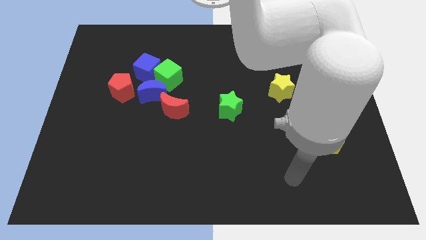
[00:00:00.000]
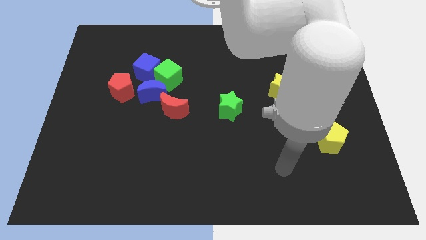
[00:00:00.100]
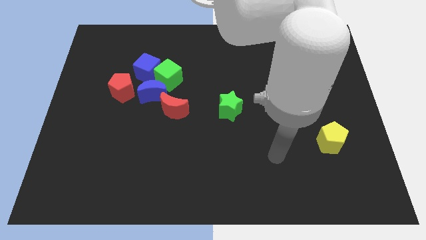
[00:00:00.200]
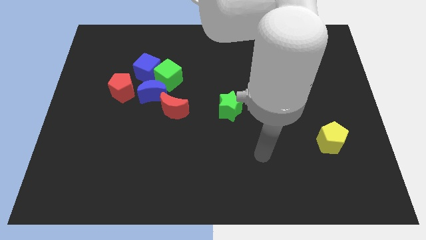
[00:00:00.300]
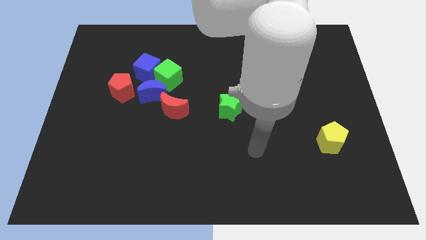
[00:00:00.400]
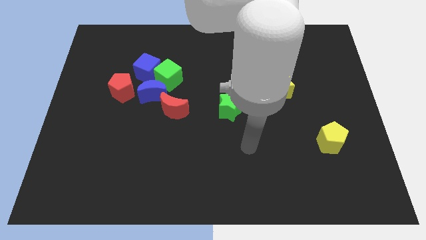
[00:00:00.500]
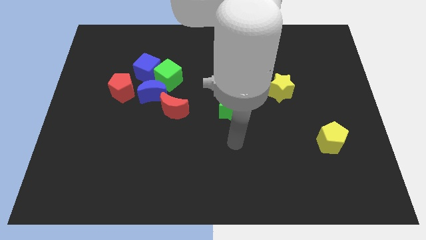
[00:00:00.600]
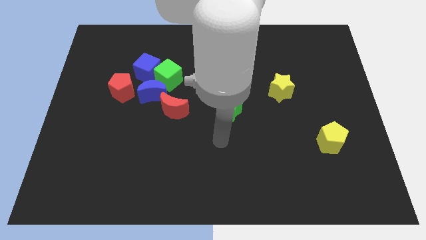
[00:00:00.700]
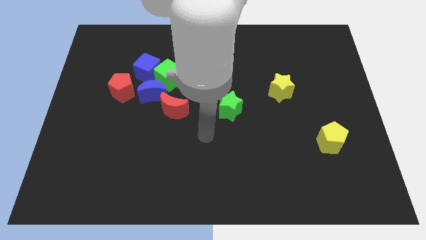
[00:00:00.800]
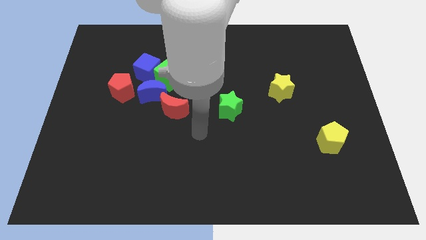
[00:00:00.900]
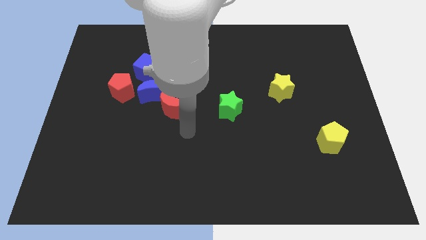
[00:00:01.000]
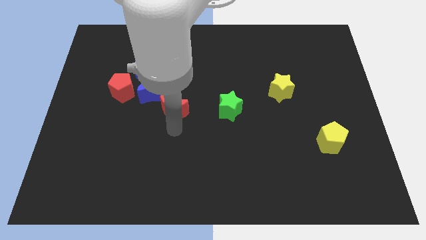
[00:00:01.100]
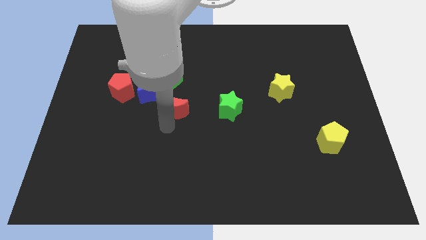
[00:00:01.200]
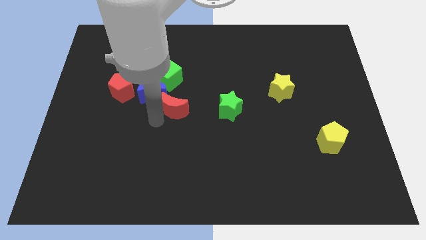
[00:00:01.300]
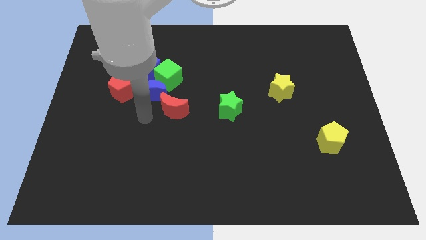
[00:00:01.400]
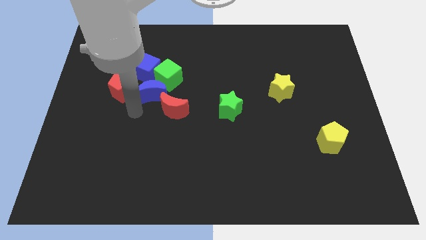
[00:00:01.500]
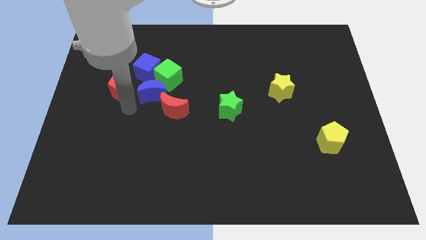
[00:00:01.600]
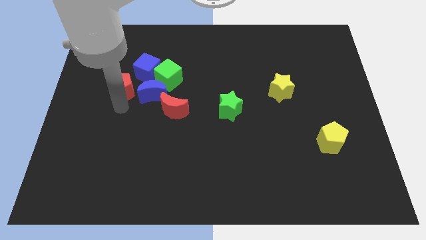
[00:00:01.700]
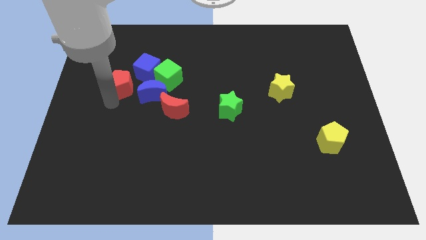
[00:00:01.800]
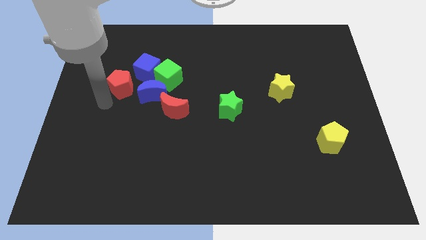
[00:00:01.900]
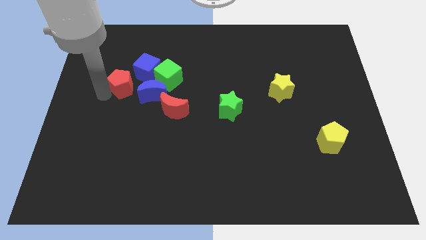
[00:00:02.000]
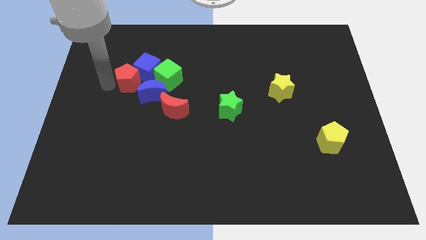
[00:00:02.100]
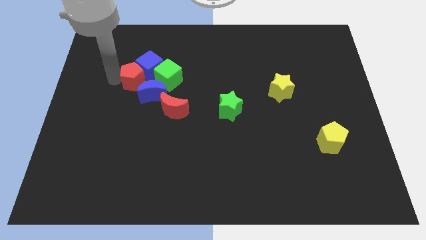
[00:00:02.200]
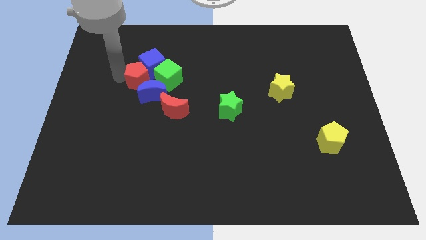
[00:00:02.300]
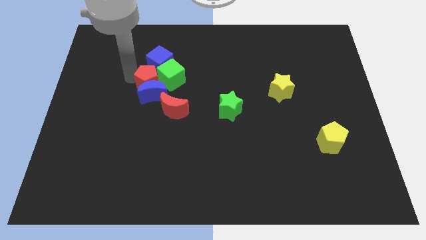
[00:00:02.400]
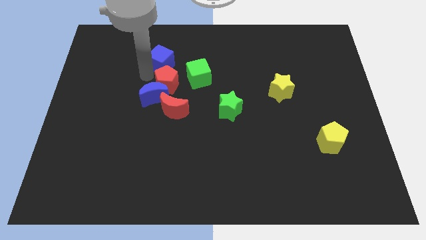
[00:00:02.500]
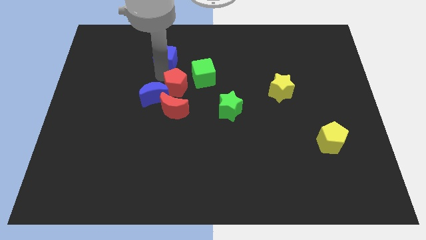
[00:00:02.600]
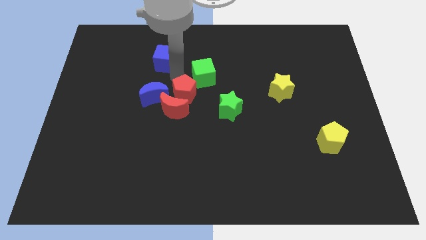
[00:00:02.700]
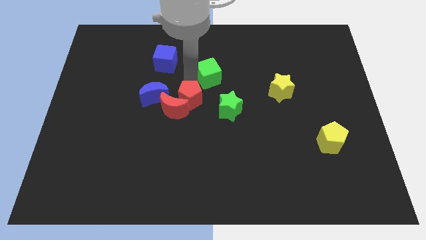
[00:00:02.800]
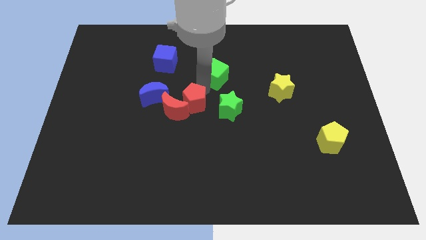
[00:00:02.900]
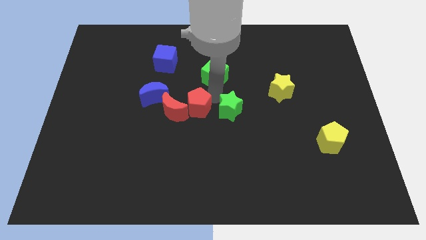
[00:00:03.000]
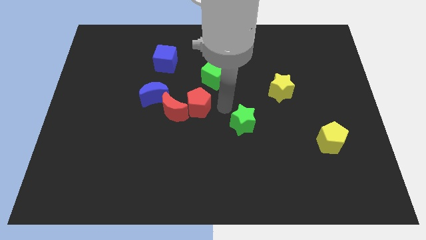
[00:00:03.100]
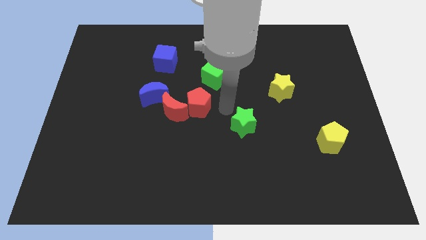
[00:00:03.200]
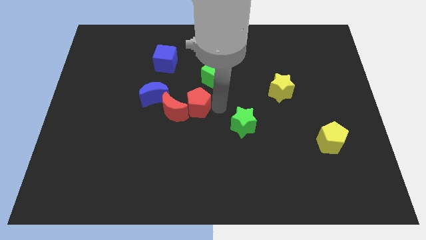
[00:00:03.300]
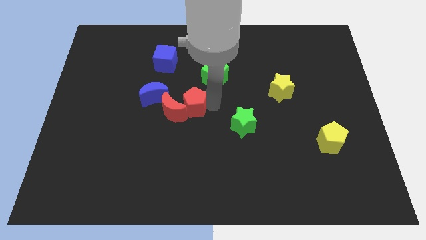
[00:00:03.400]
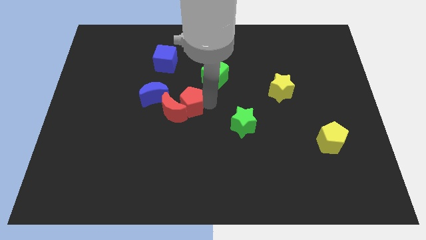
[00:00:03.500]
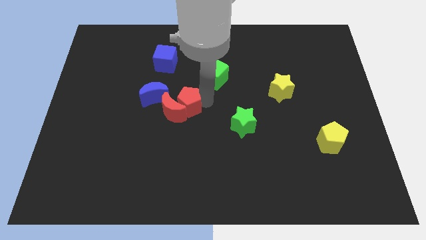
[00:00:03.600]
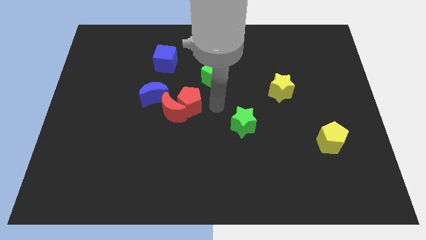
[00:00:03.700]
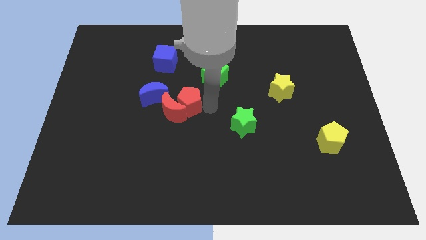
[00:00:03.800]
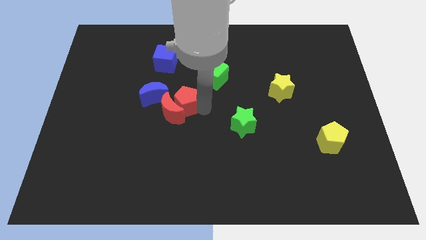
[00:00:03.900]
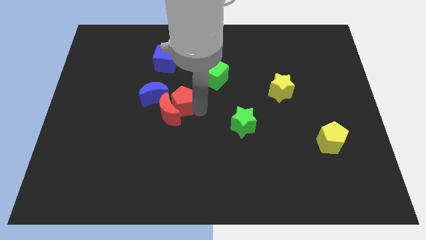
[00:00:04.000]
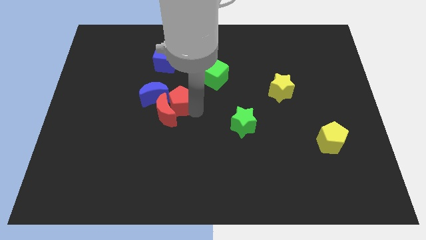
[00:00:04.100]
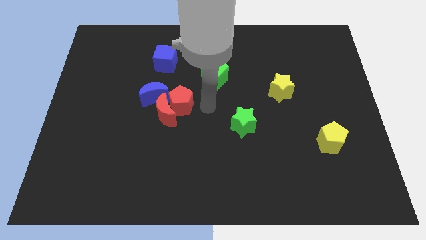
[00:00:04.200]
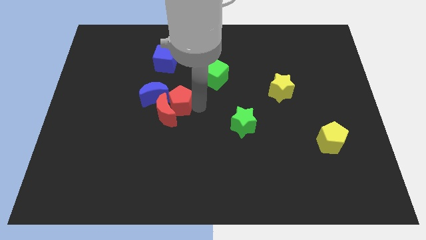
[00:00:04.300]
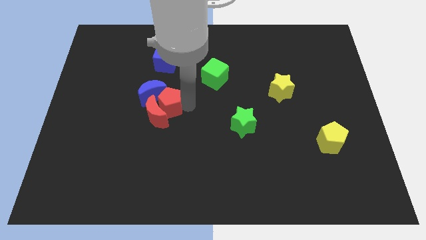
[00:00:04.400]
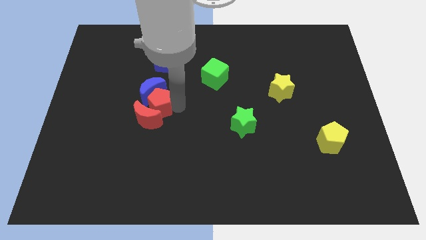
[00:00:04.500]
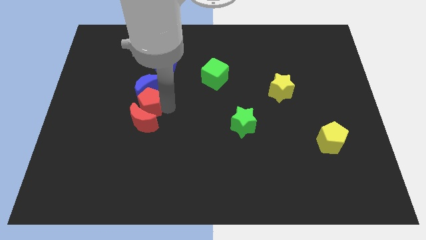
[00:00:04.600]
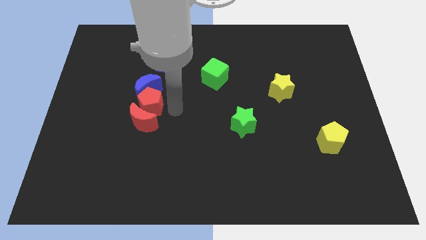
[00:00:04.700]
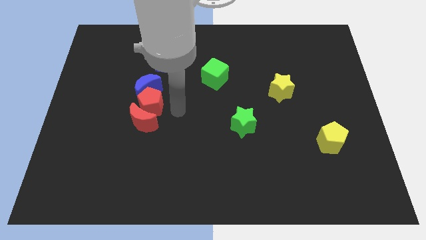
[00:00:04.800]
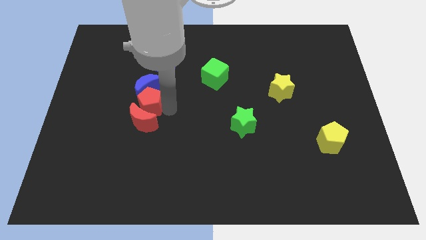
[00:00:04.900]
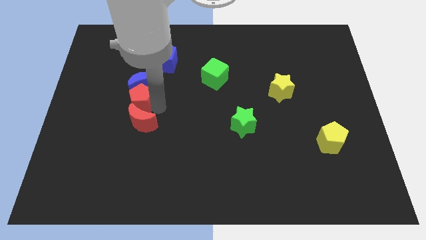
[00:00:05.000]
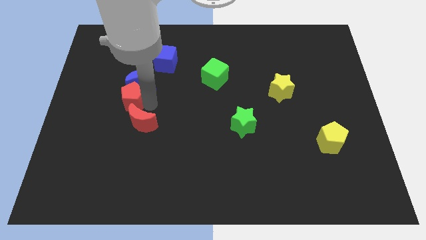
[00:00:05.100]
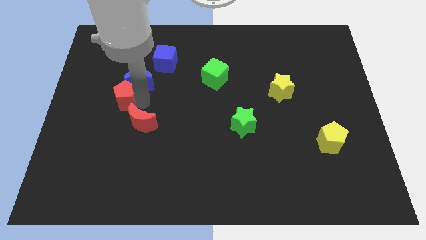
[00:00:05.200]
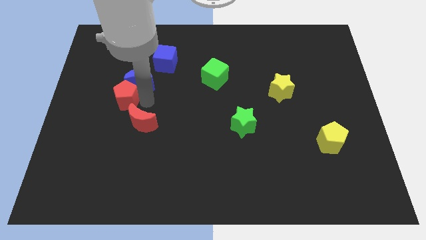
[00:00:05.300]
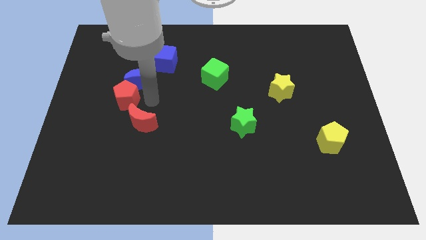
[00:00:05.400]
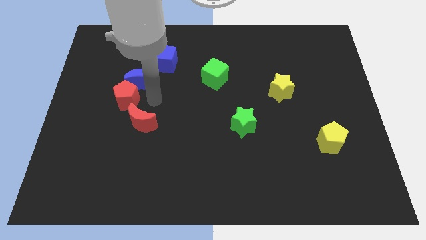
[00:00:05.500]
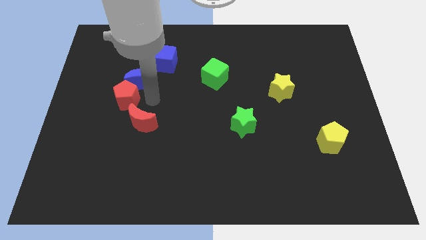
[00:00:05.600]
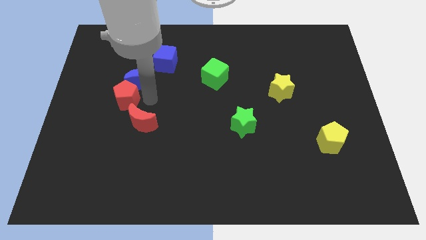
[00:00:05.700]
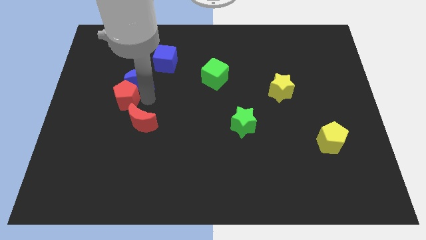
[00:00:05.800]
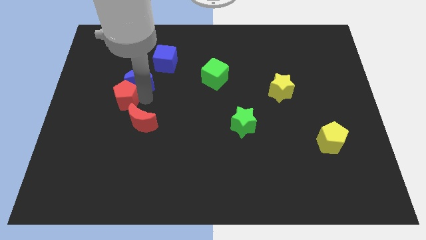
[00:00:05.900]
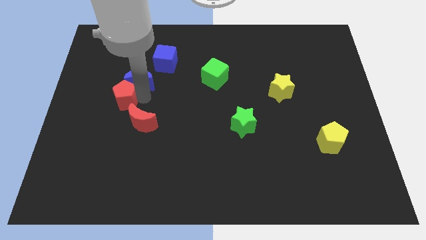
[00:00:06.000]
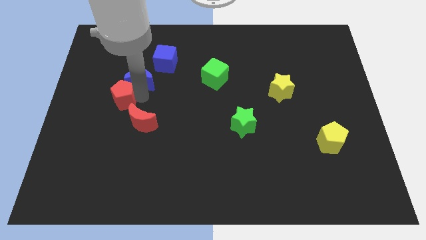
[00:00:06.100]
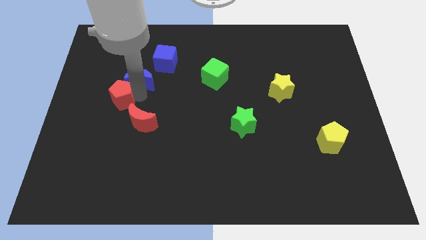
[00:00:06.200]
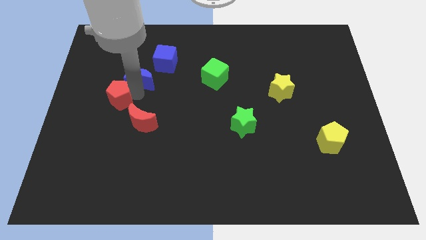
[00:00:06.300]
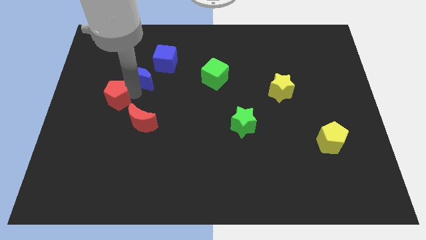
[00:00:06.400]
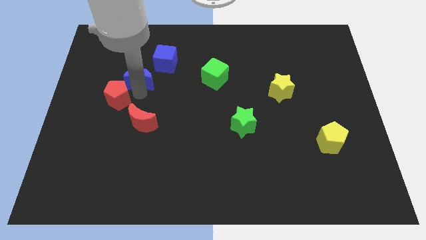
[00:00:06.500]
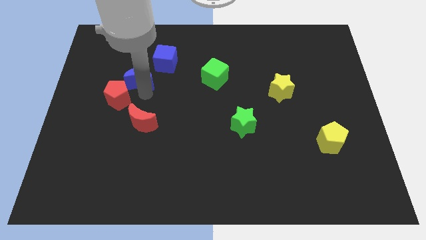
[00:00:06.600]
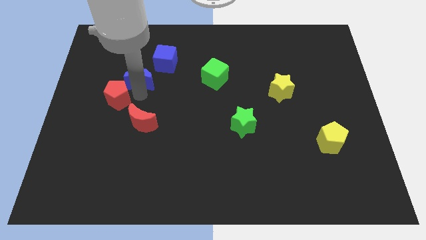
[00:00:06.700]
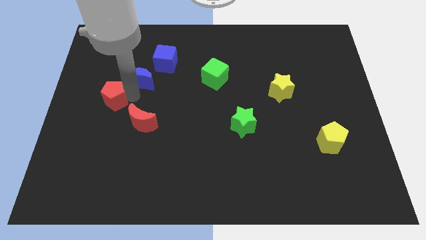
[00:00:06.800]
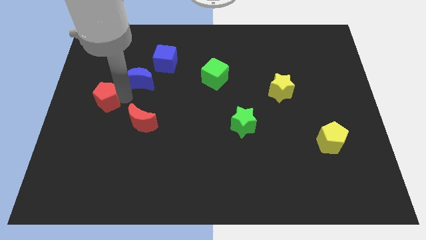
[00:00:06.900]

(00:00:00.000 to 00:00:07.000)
put the red pentagon to the left side
